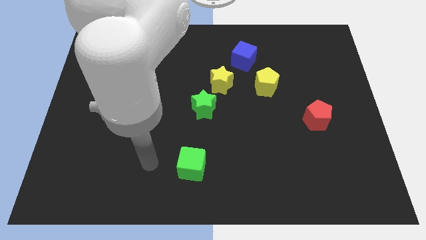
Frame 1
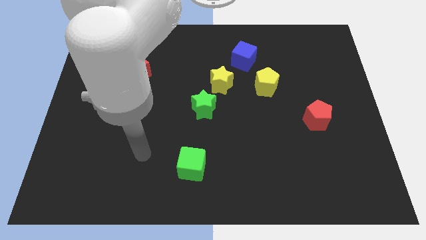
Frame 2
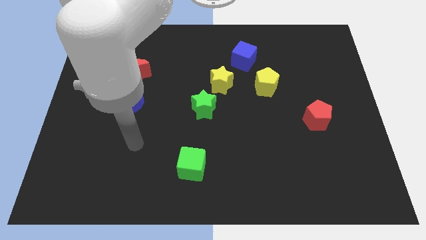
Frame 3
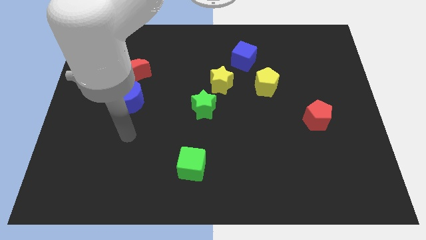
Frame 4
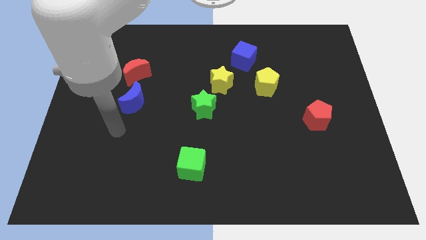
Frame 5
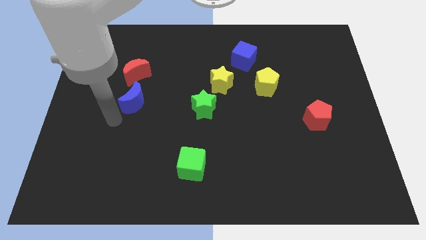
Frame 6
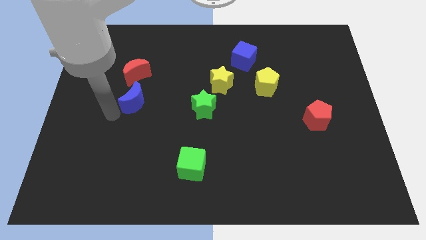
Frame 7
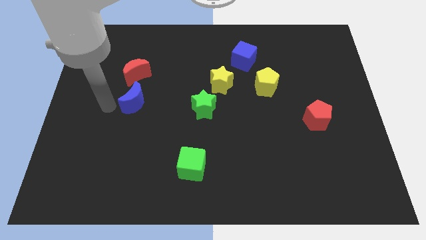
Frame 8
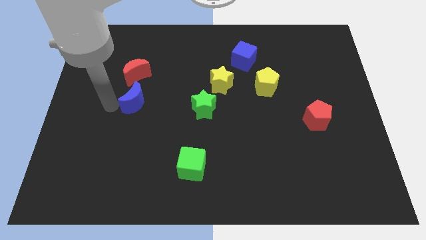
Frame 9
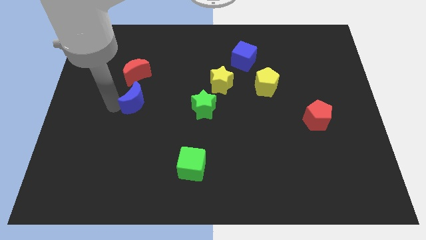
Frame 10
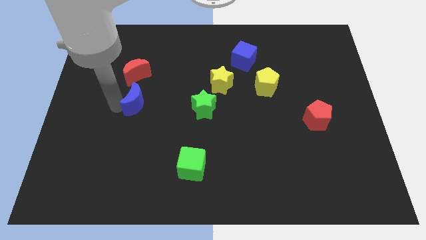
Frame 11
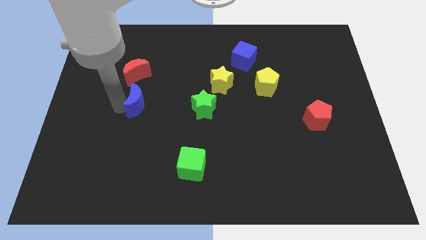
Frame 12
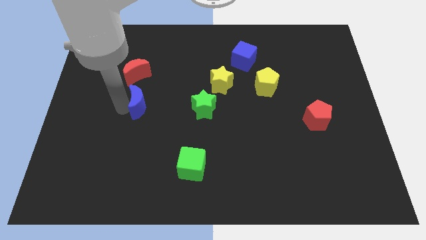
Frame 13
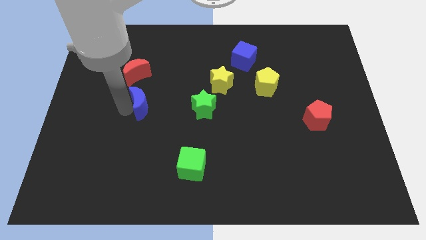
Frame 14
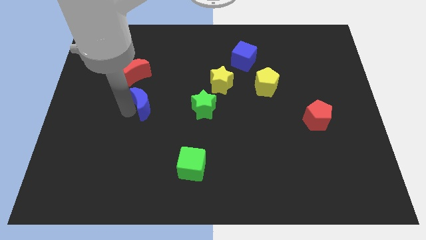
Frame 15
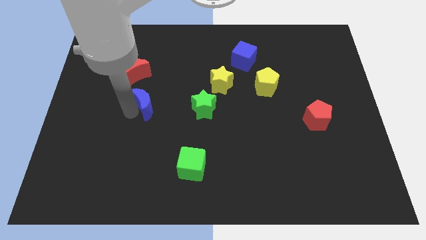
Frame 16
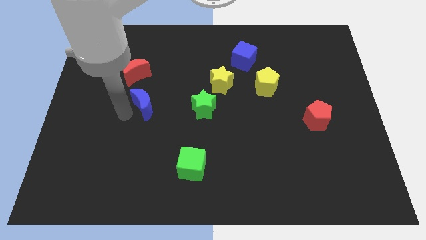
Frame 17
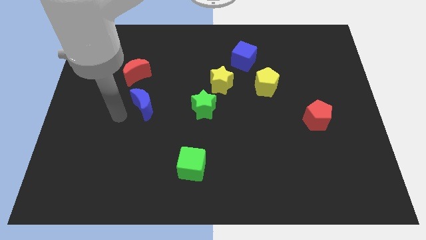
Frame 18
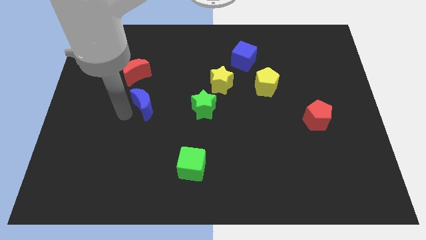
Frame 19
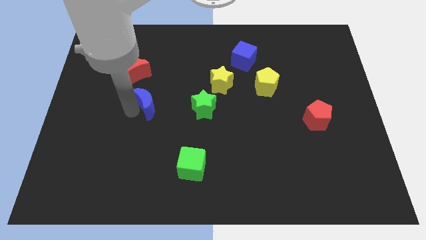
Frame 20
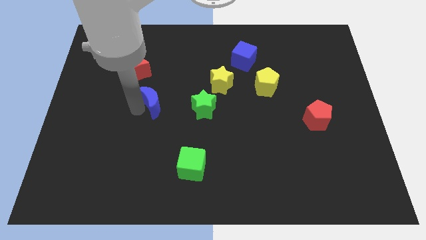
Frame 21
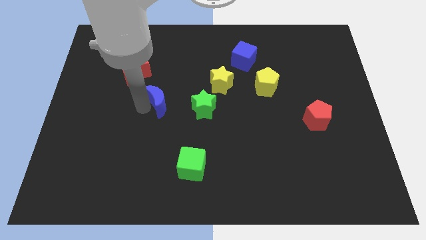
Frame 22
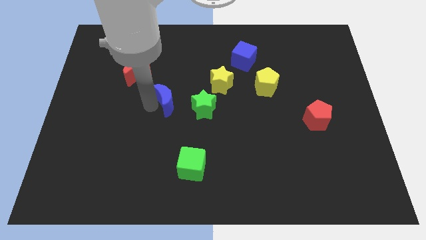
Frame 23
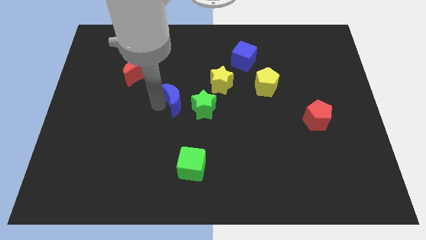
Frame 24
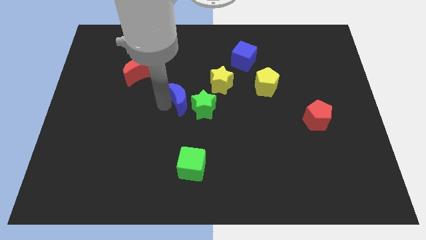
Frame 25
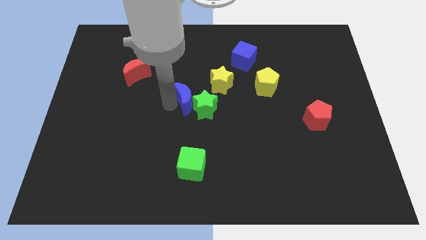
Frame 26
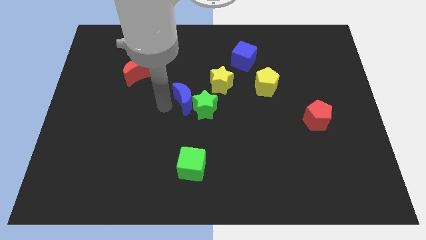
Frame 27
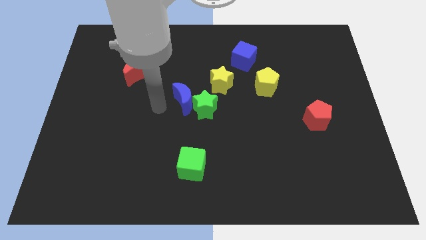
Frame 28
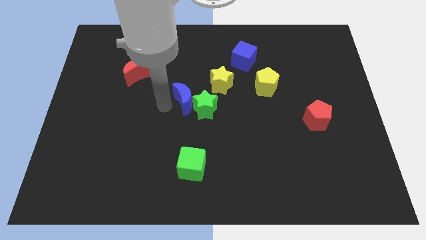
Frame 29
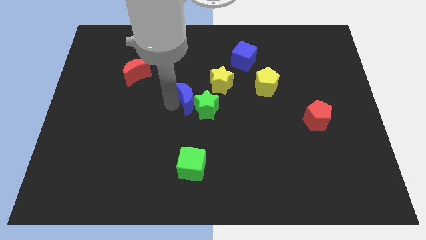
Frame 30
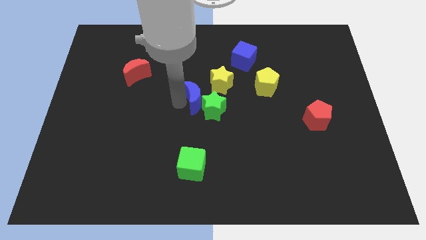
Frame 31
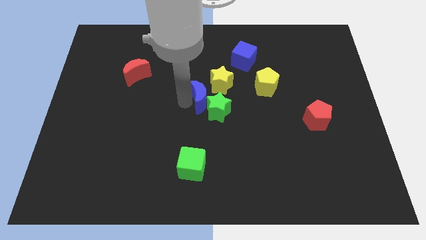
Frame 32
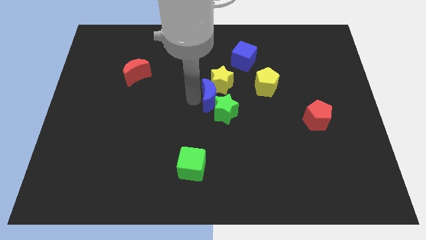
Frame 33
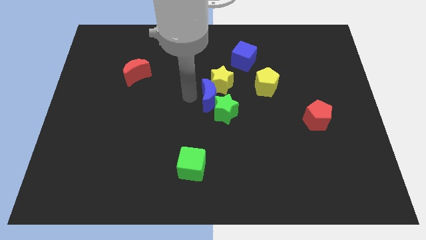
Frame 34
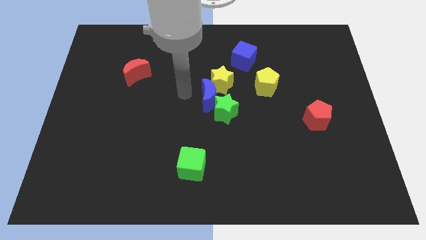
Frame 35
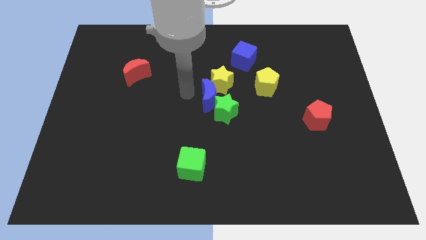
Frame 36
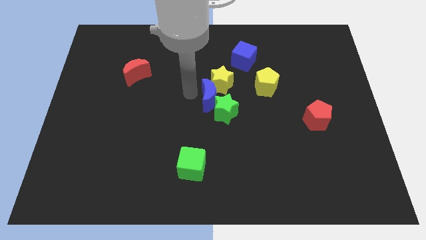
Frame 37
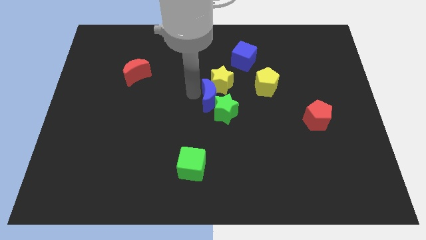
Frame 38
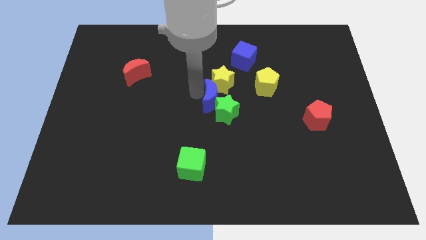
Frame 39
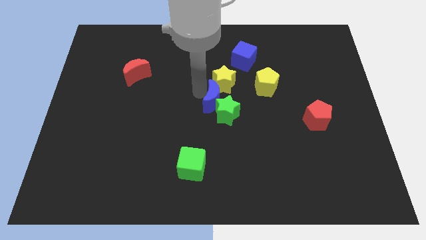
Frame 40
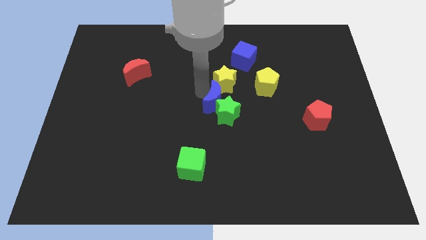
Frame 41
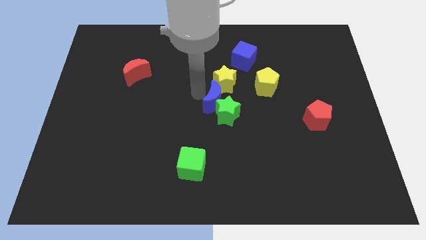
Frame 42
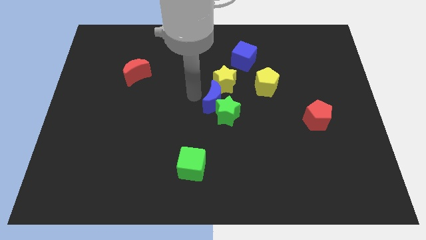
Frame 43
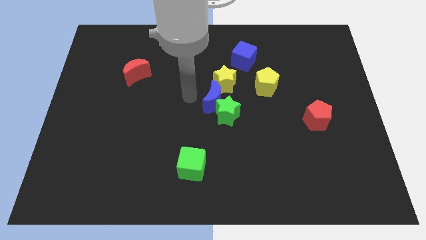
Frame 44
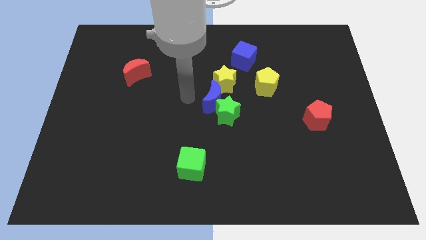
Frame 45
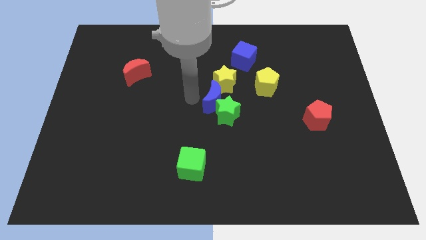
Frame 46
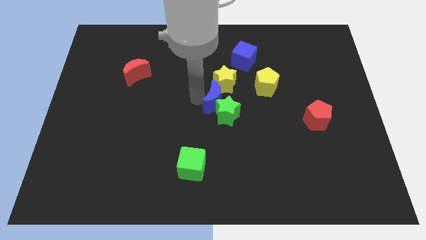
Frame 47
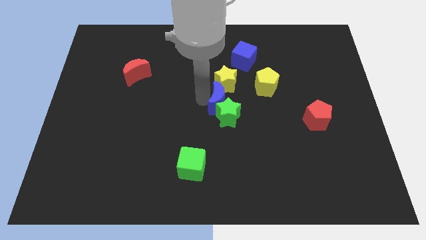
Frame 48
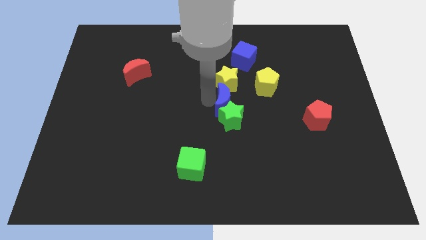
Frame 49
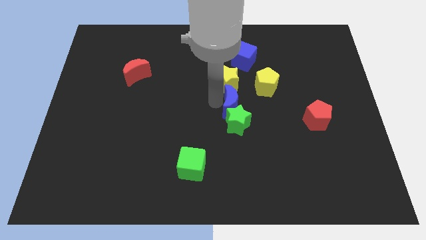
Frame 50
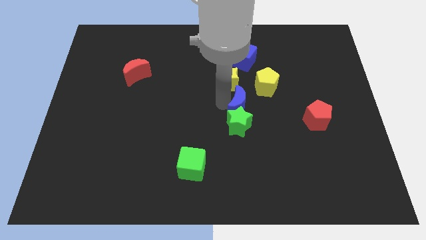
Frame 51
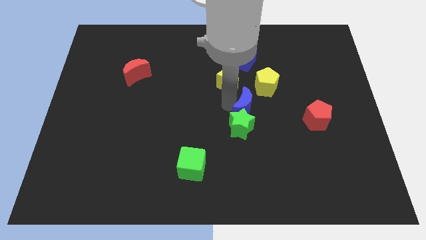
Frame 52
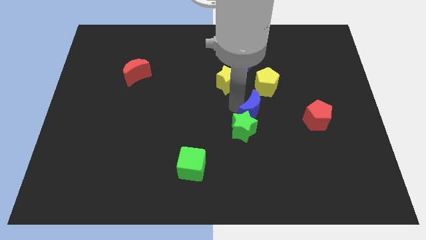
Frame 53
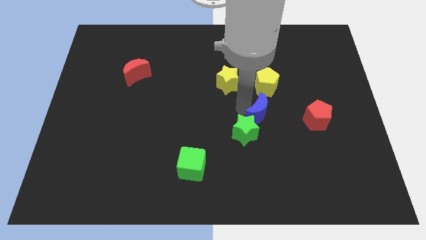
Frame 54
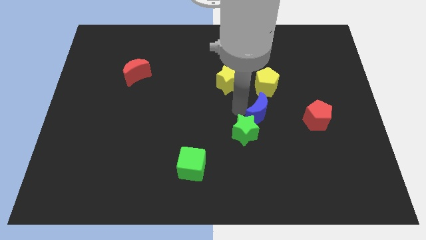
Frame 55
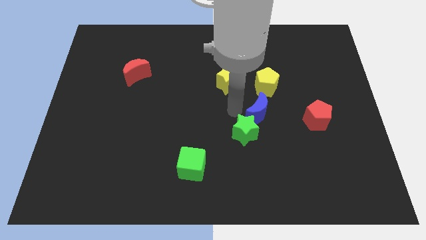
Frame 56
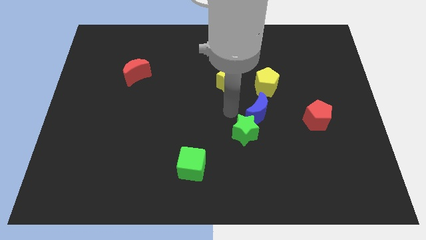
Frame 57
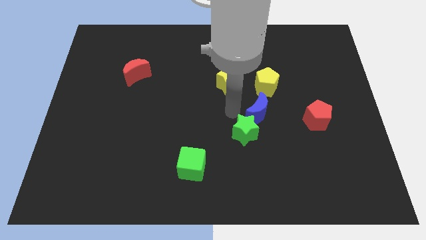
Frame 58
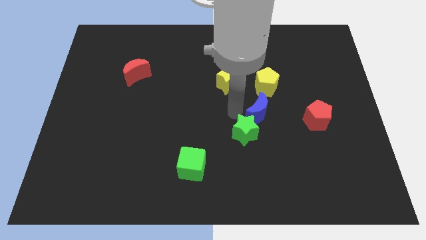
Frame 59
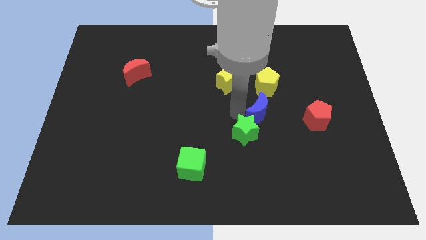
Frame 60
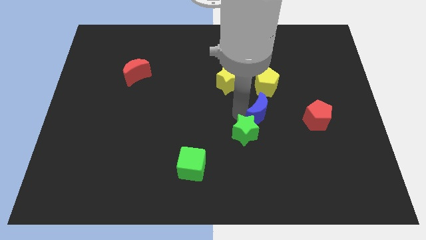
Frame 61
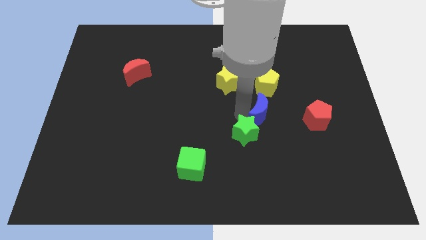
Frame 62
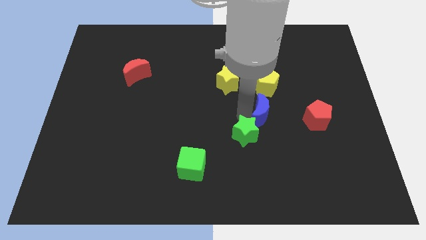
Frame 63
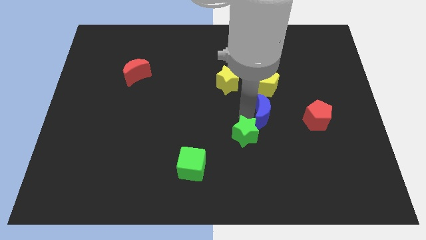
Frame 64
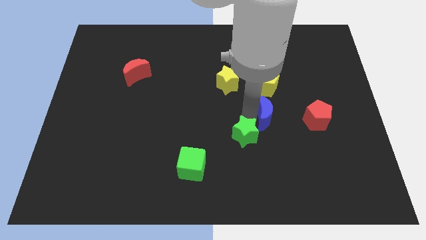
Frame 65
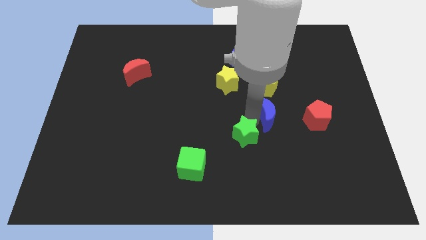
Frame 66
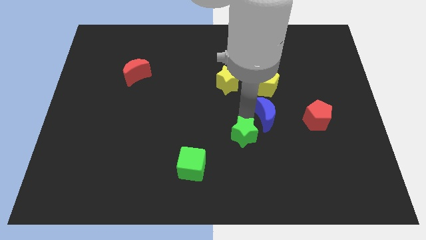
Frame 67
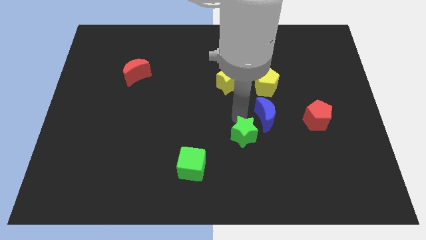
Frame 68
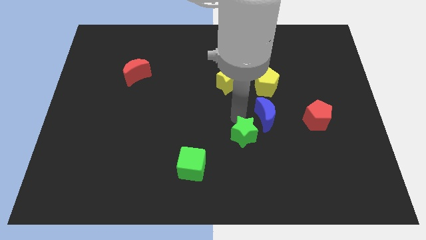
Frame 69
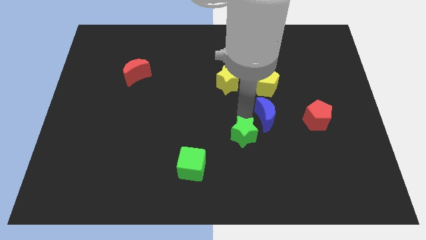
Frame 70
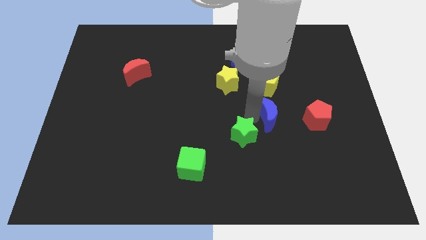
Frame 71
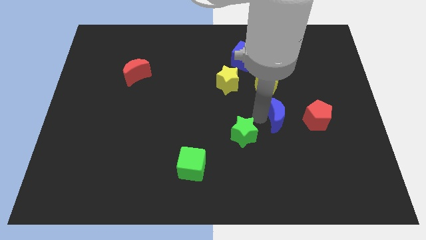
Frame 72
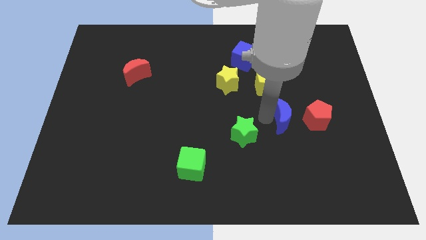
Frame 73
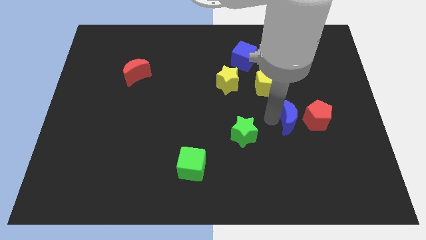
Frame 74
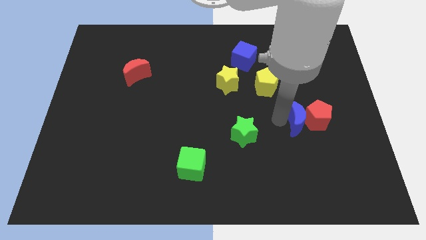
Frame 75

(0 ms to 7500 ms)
push the blue moon next to the red pentagon
